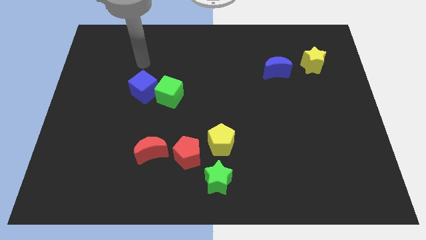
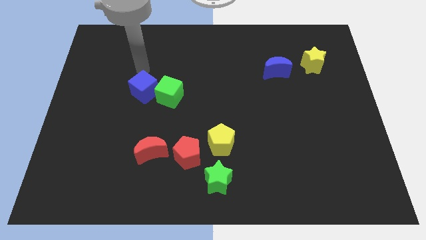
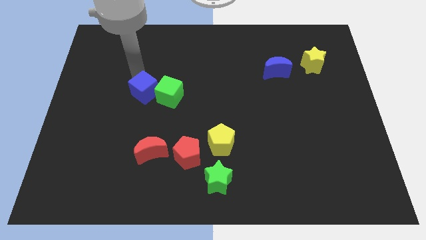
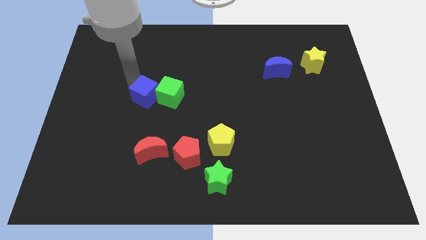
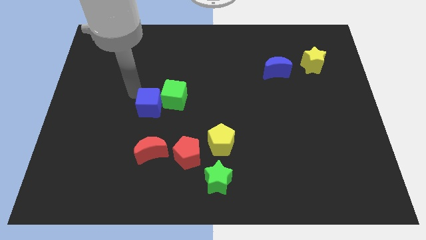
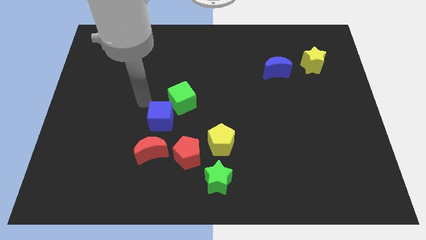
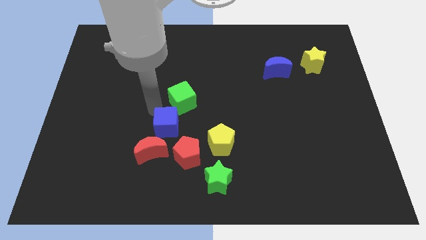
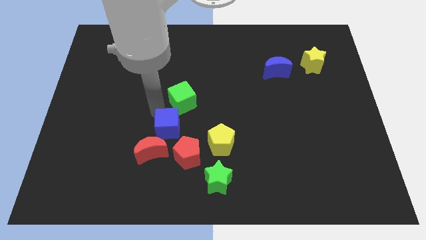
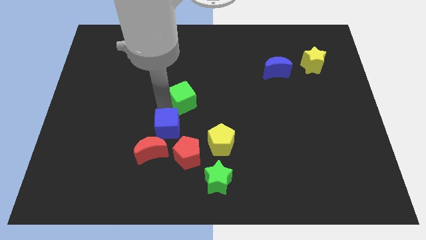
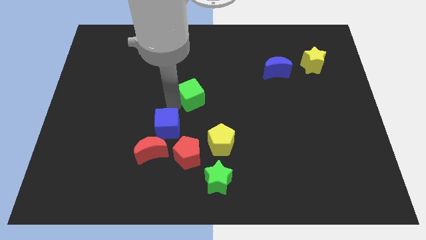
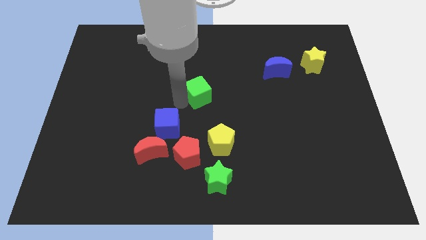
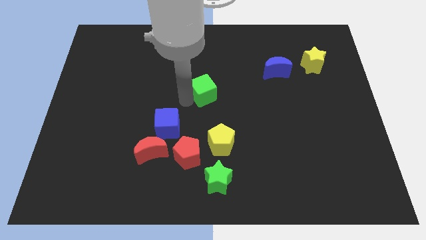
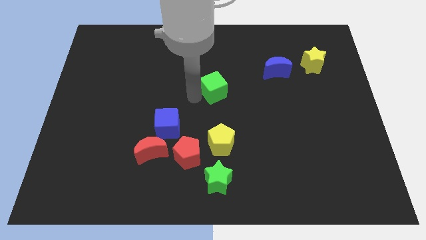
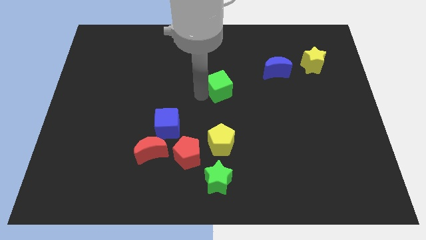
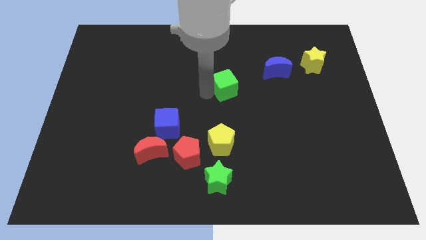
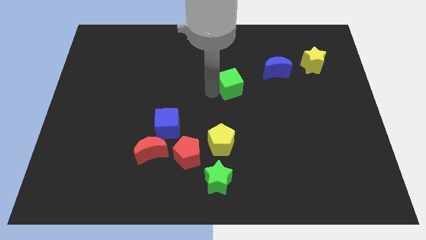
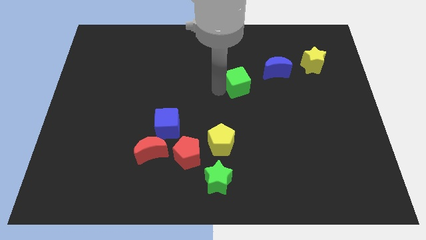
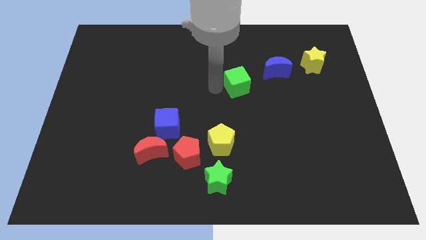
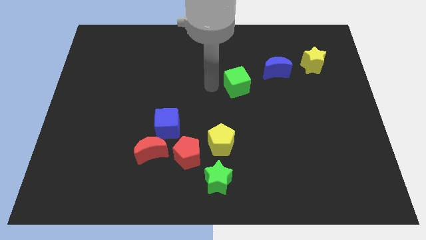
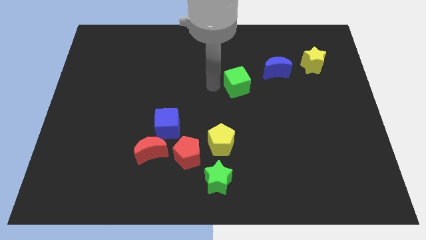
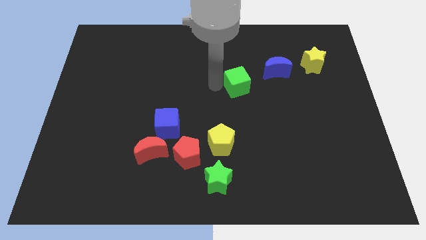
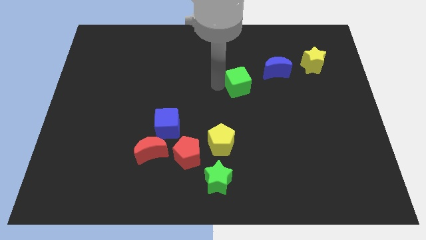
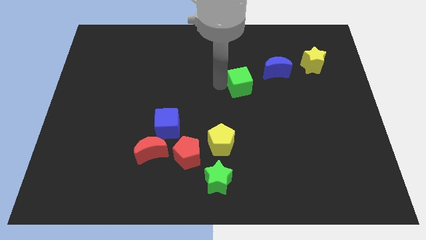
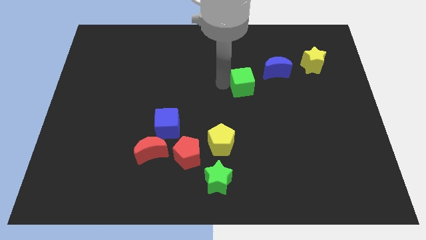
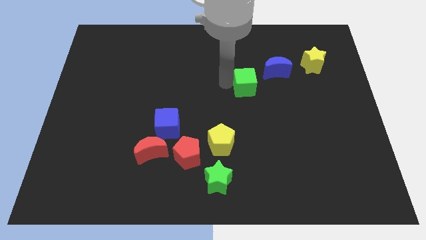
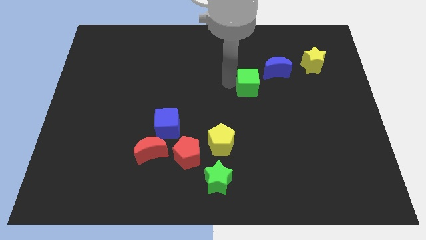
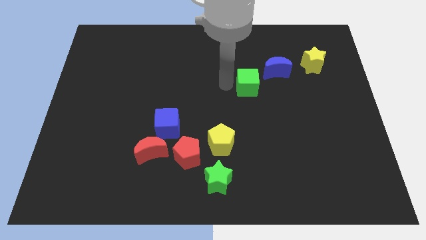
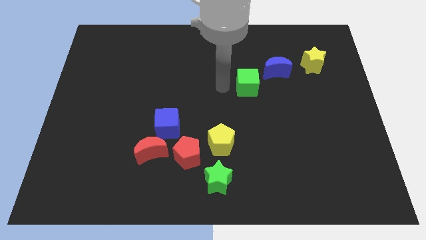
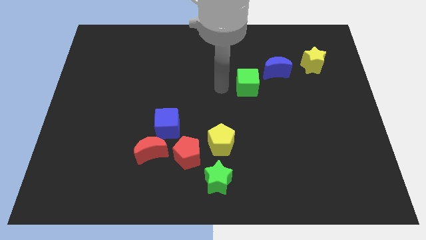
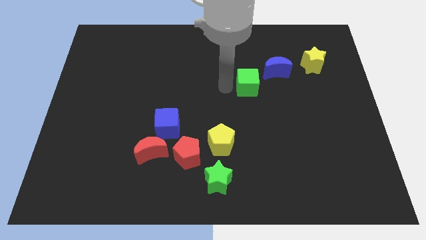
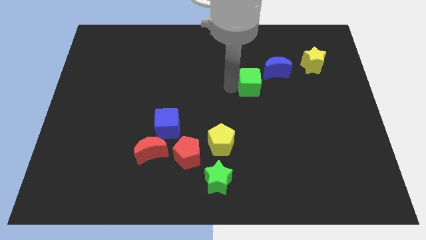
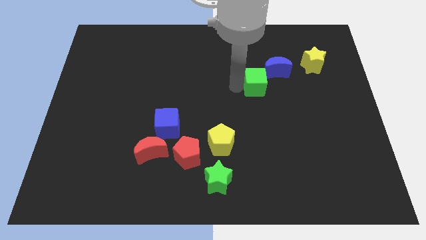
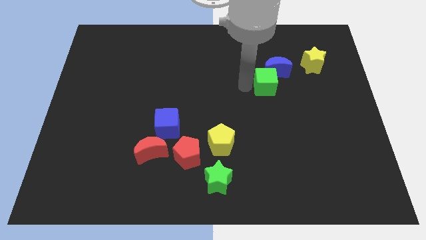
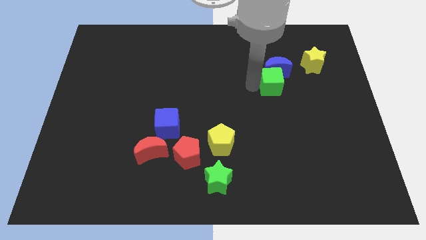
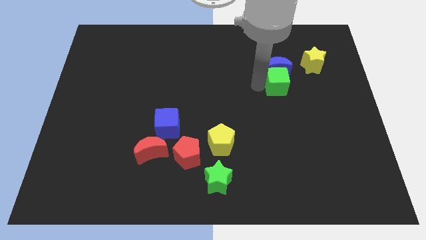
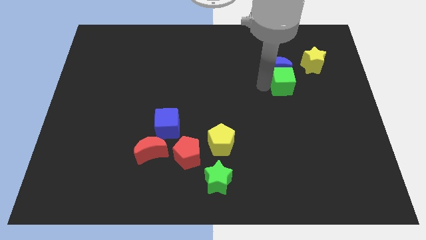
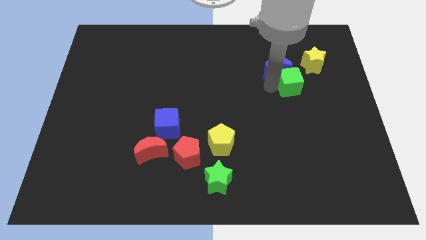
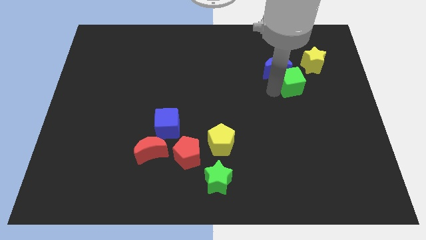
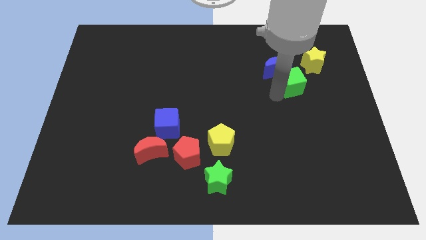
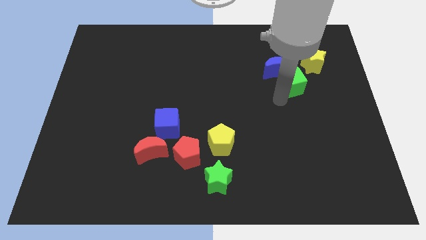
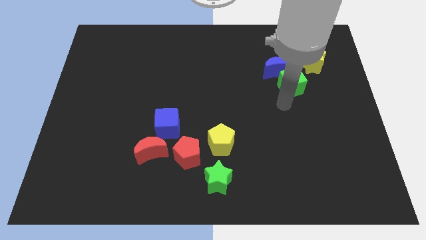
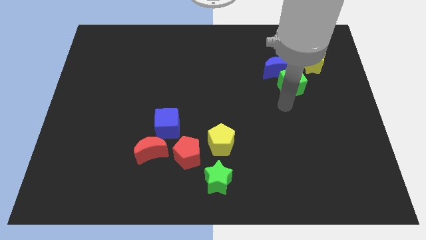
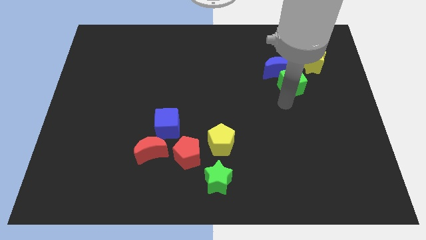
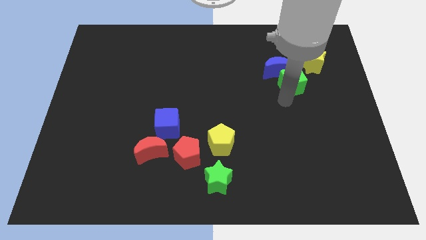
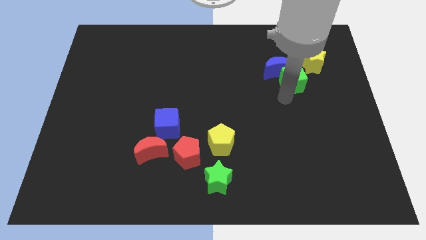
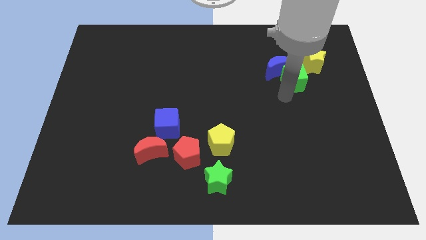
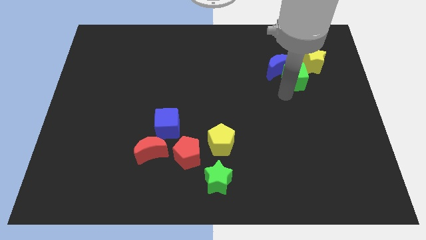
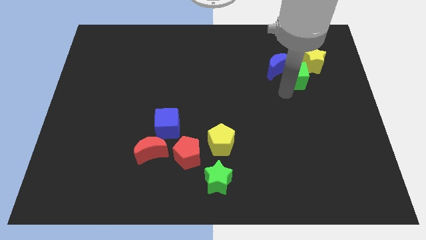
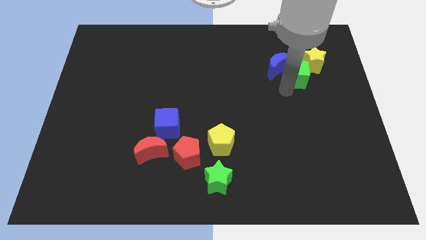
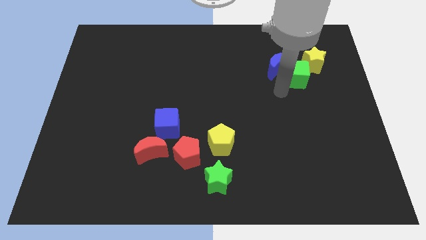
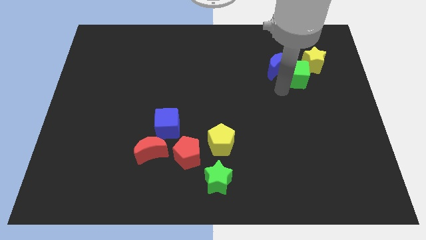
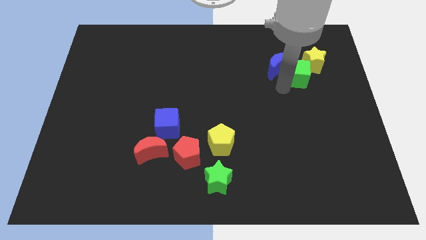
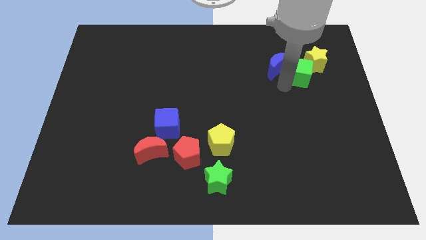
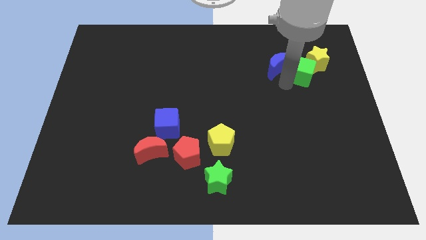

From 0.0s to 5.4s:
move the green cube close to the yellow star

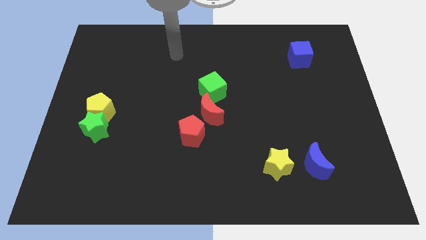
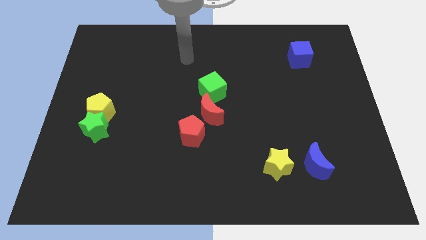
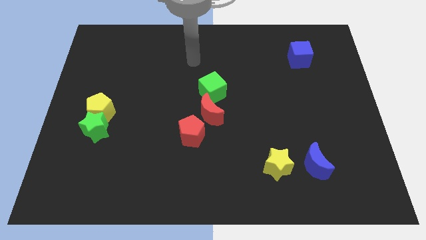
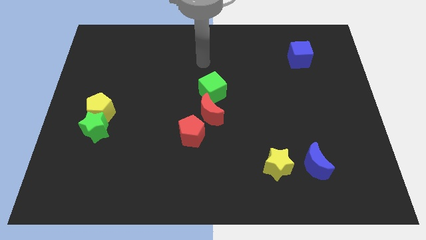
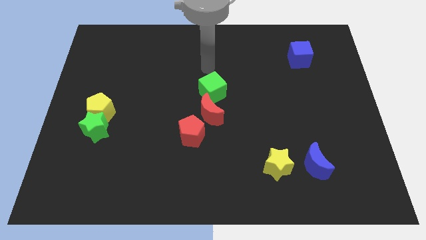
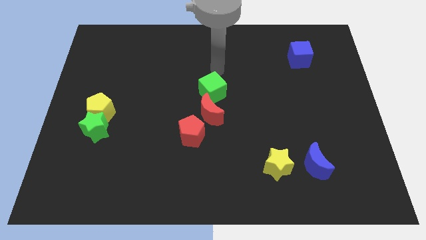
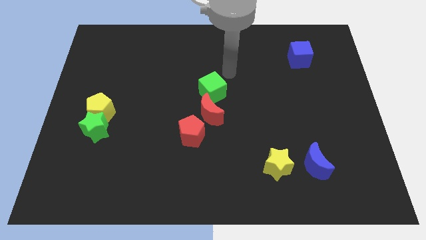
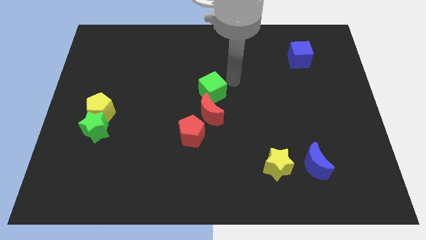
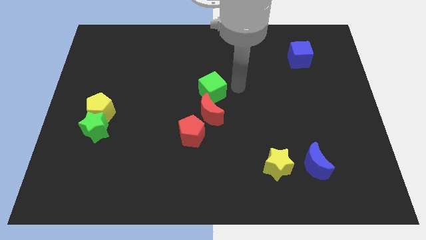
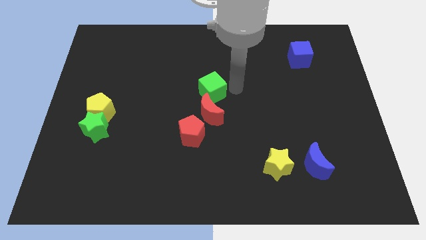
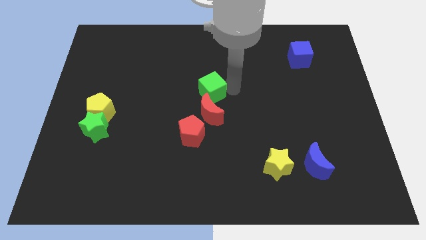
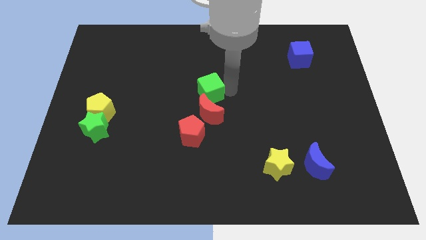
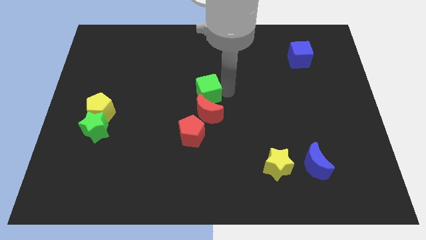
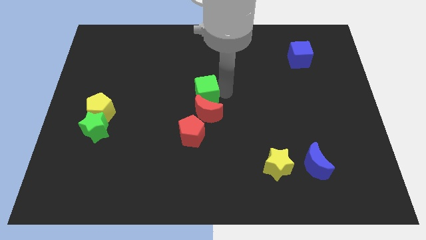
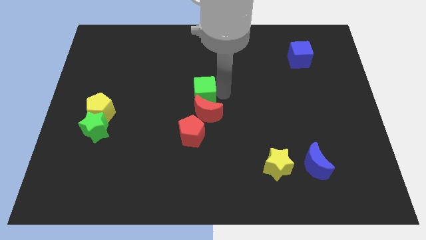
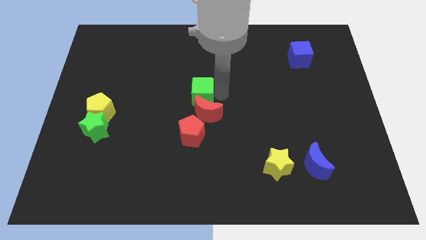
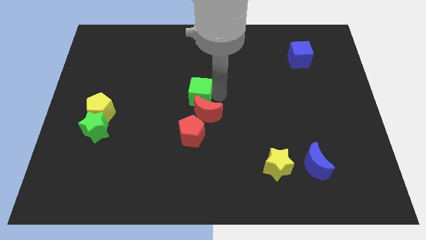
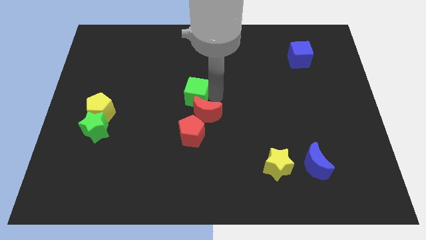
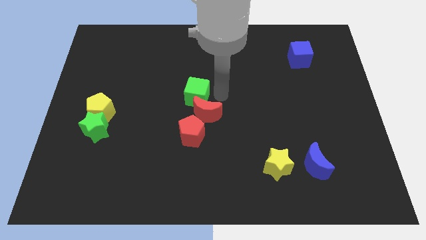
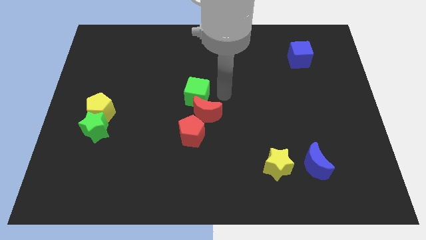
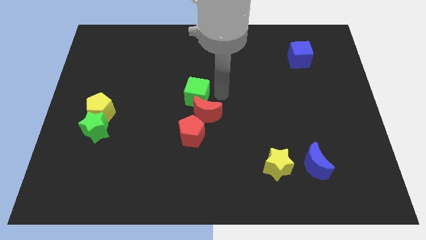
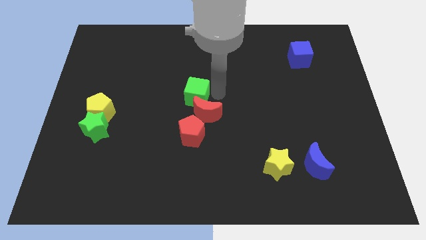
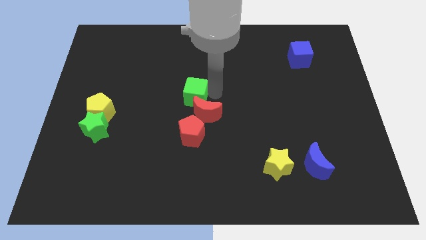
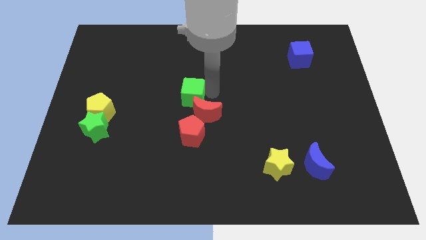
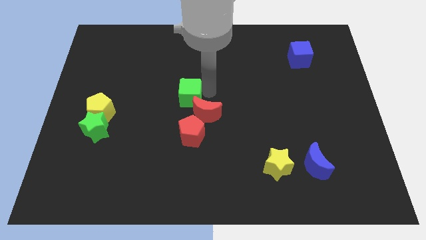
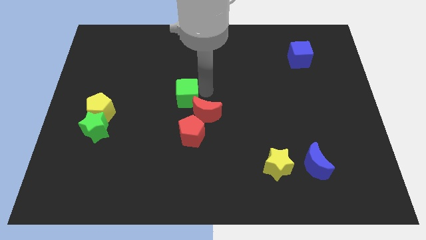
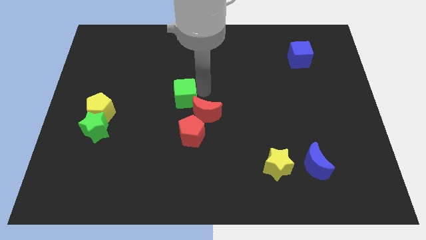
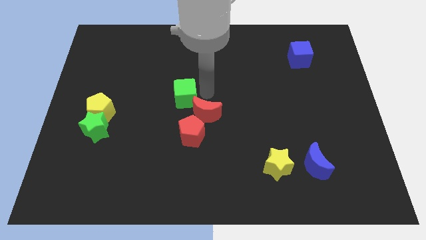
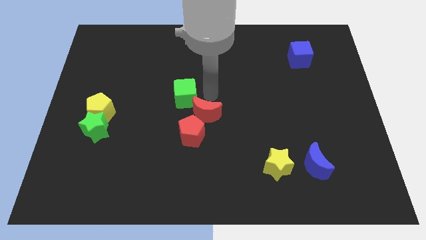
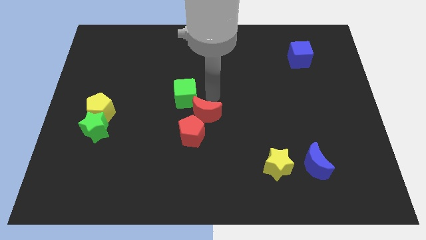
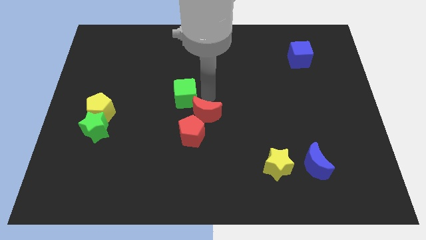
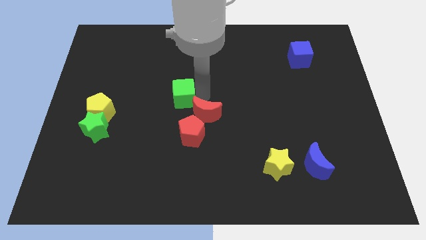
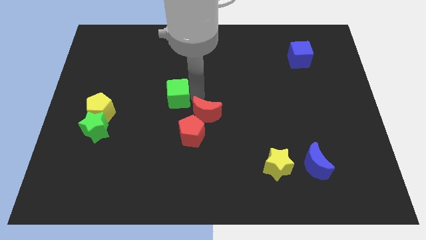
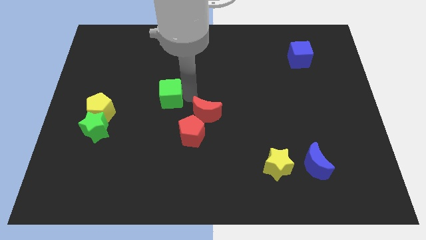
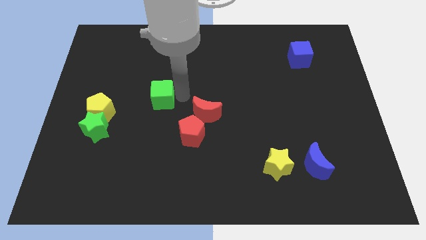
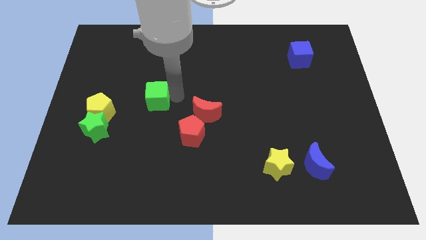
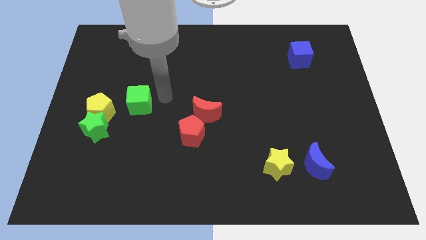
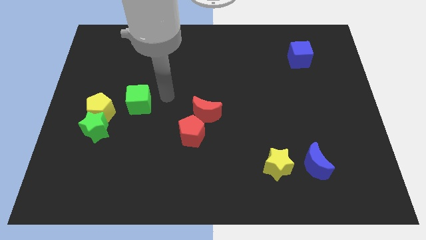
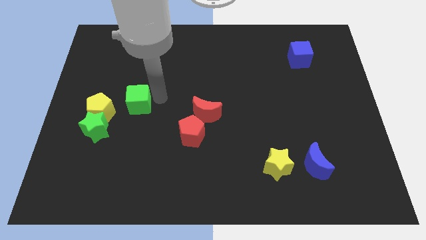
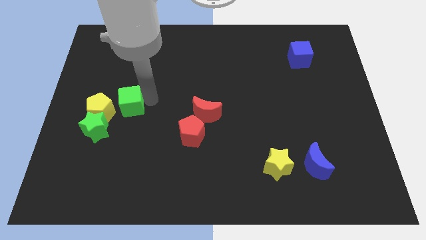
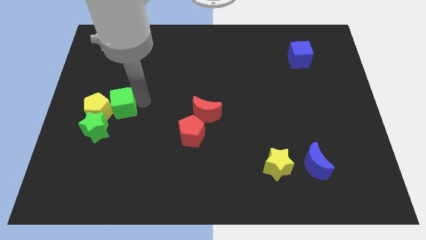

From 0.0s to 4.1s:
move the green cube next to the yellow pentagon
